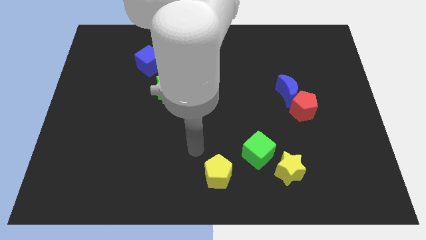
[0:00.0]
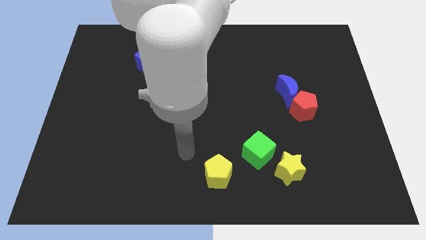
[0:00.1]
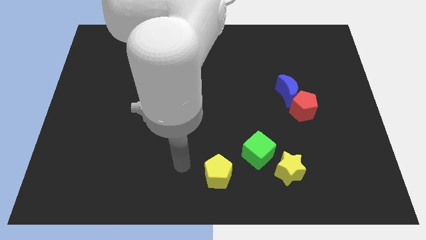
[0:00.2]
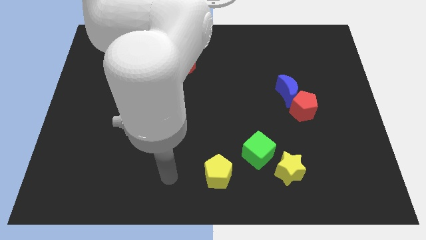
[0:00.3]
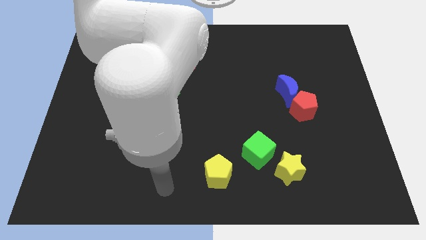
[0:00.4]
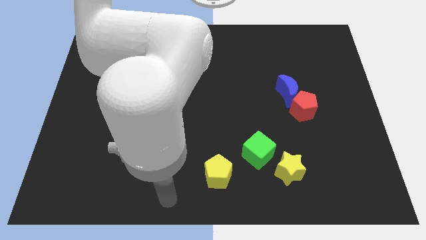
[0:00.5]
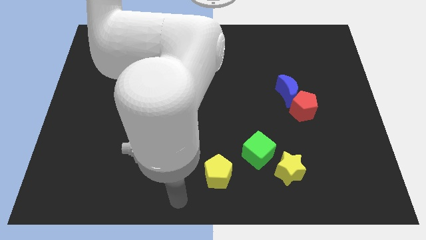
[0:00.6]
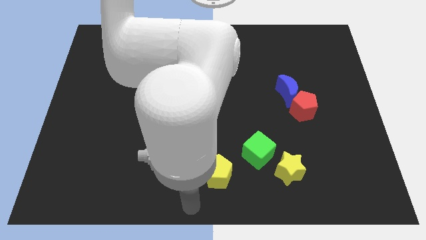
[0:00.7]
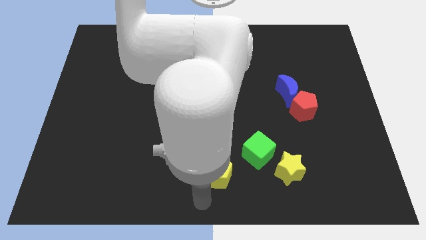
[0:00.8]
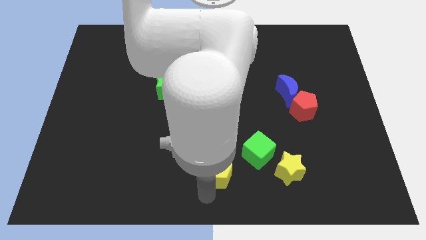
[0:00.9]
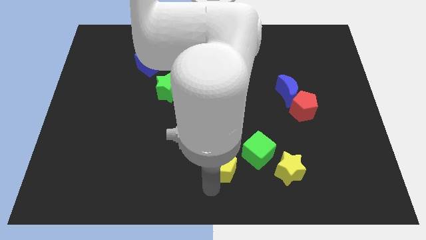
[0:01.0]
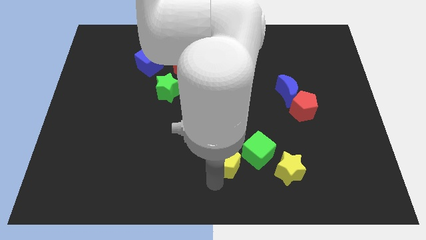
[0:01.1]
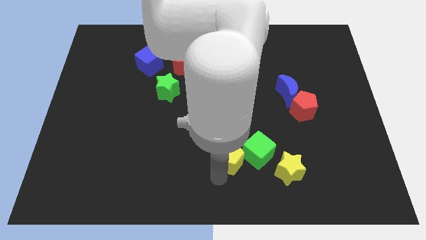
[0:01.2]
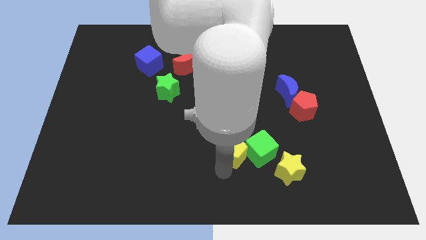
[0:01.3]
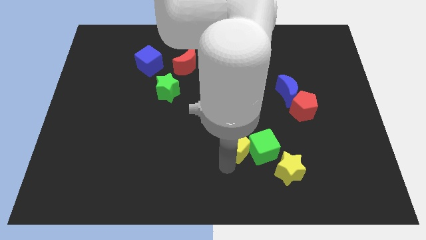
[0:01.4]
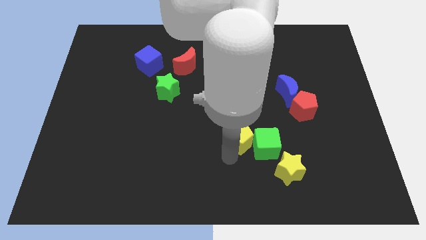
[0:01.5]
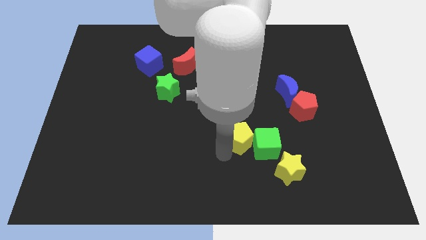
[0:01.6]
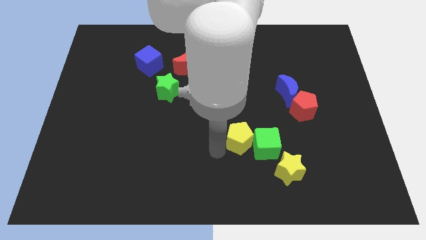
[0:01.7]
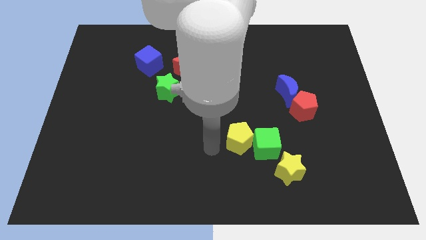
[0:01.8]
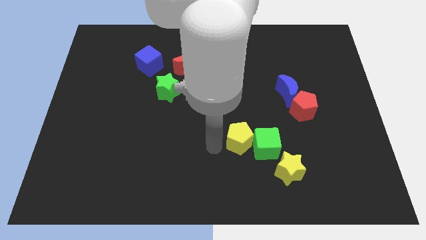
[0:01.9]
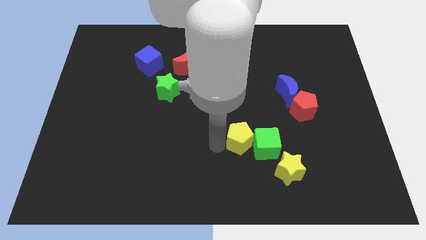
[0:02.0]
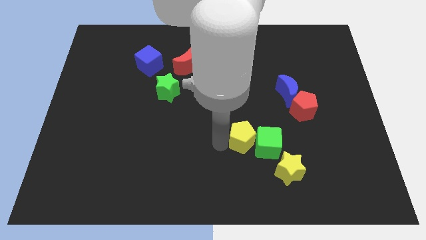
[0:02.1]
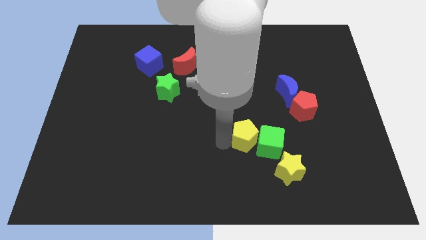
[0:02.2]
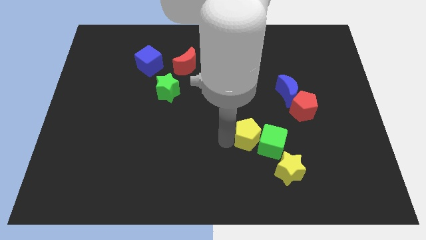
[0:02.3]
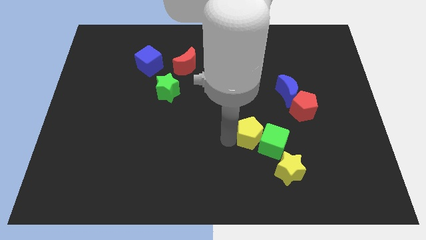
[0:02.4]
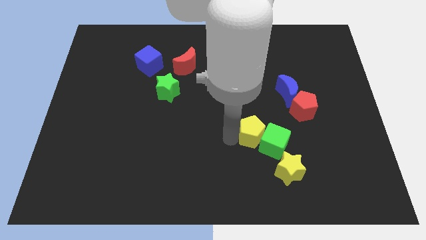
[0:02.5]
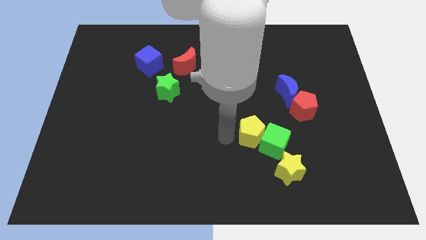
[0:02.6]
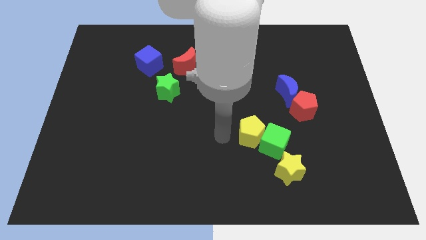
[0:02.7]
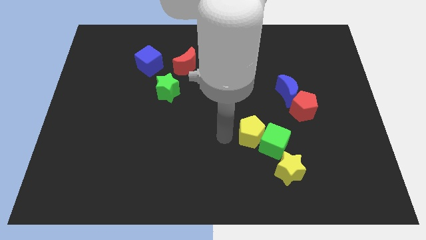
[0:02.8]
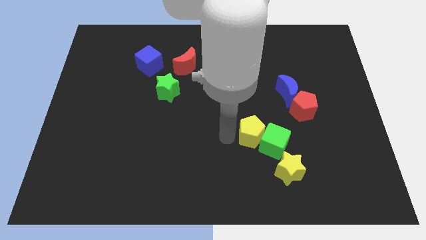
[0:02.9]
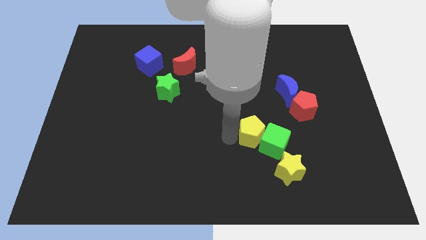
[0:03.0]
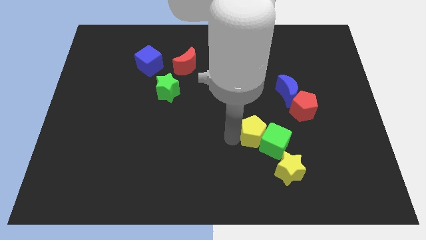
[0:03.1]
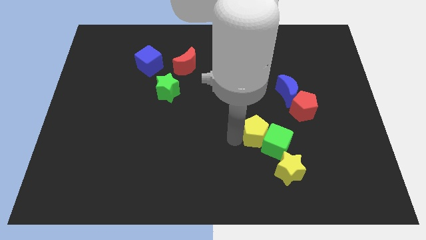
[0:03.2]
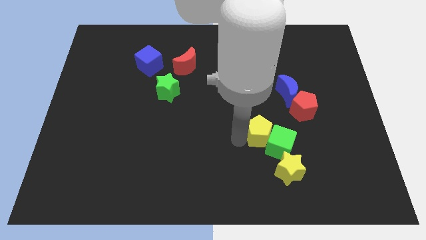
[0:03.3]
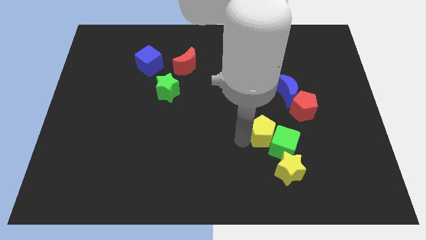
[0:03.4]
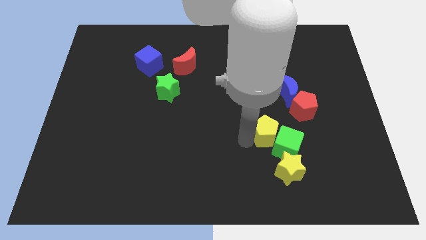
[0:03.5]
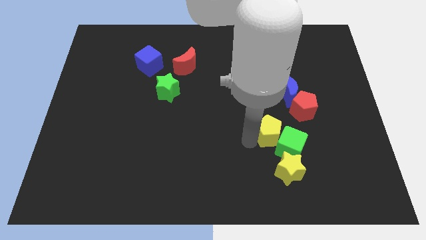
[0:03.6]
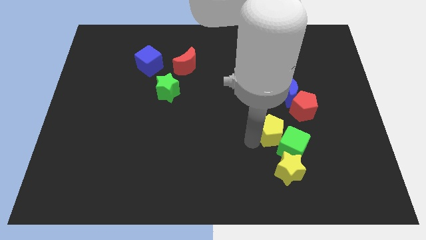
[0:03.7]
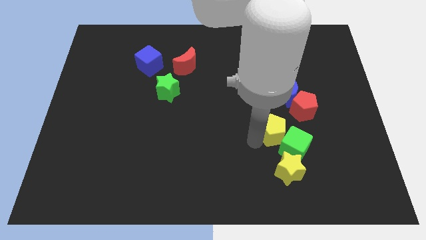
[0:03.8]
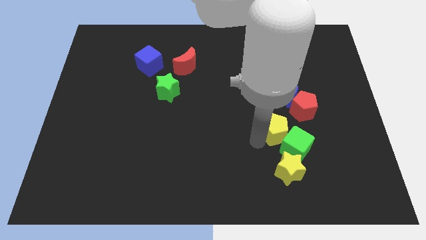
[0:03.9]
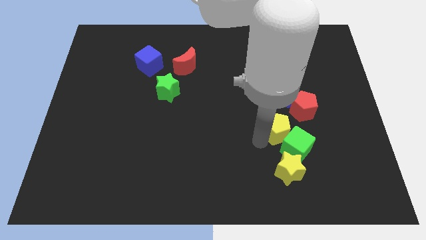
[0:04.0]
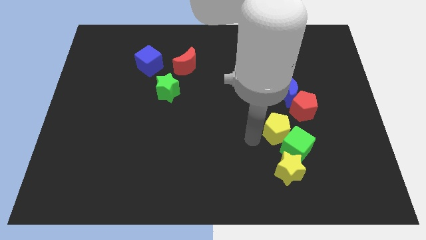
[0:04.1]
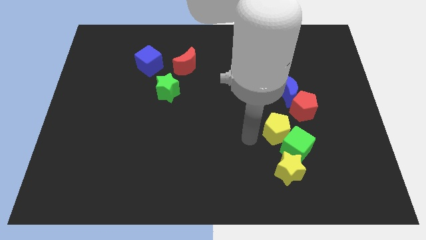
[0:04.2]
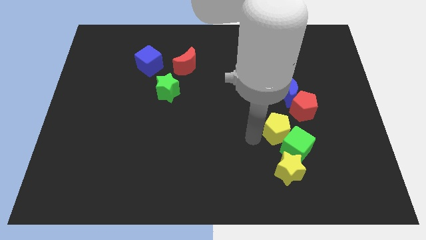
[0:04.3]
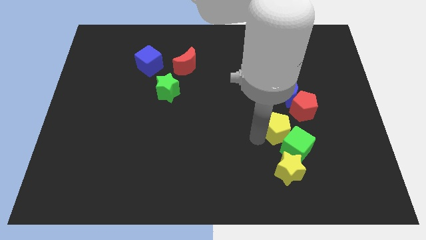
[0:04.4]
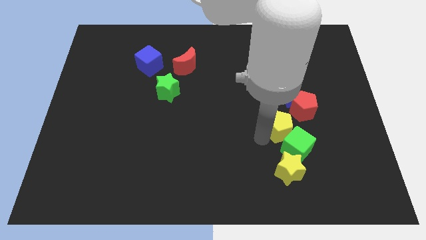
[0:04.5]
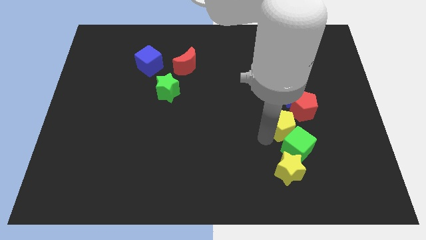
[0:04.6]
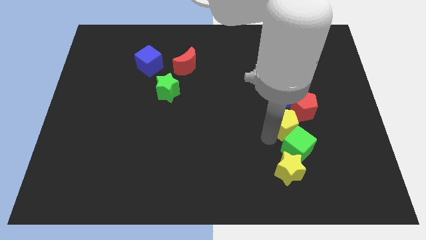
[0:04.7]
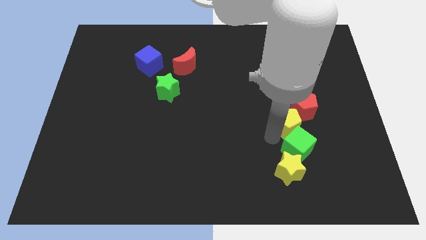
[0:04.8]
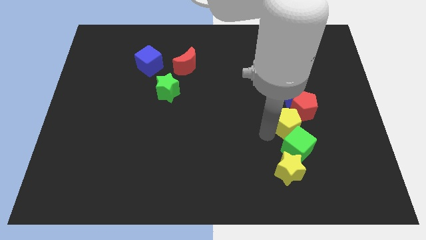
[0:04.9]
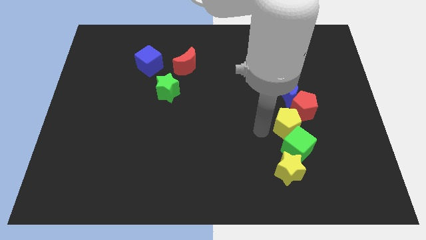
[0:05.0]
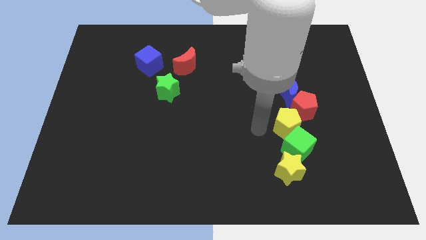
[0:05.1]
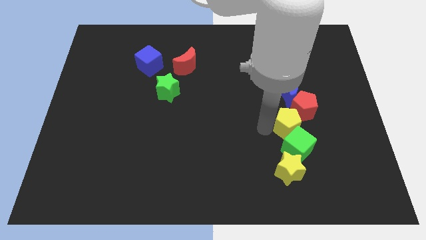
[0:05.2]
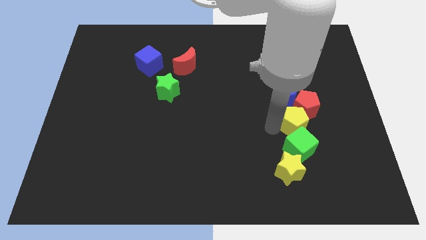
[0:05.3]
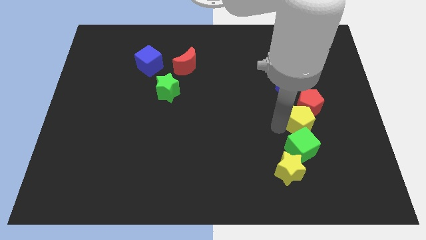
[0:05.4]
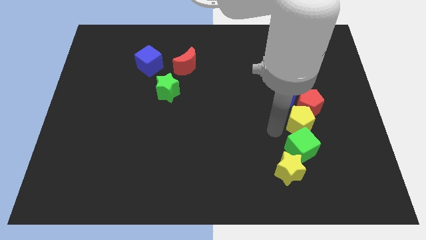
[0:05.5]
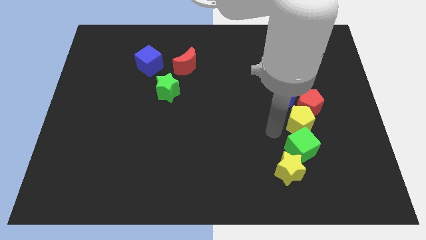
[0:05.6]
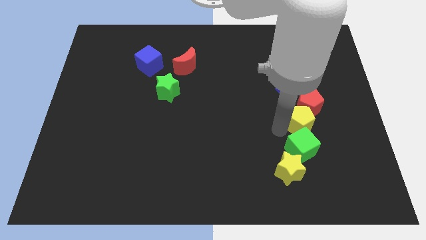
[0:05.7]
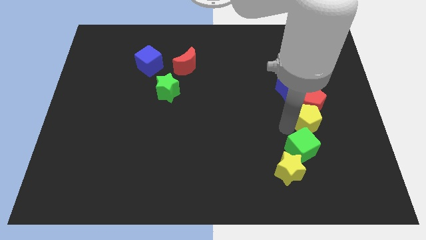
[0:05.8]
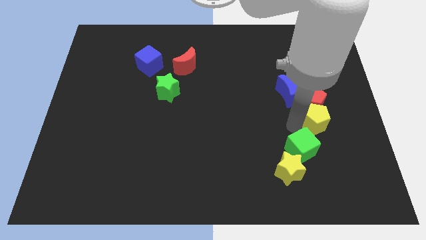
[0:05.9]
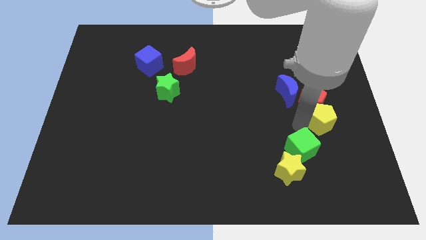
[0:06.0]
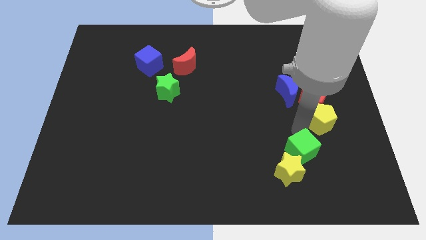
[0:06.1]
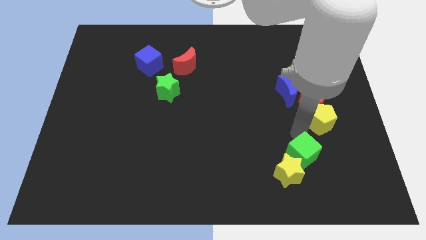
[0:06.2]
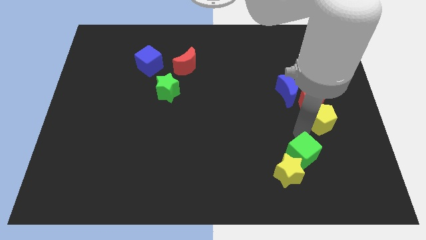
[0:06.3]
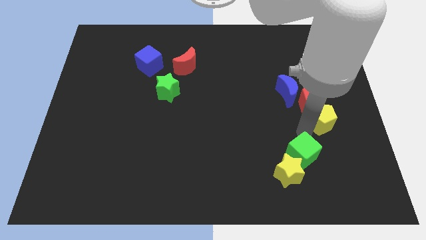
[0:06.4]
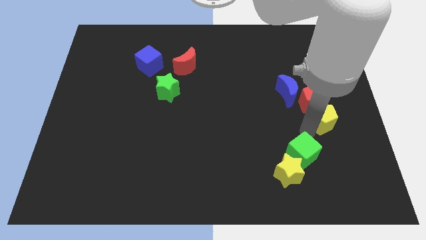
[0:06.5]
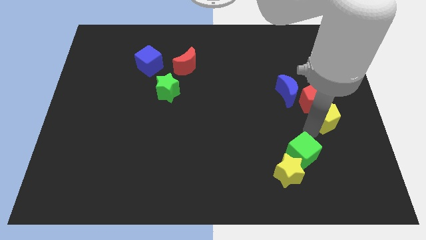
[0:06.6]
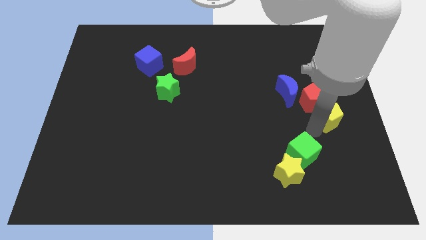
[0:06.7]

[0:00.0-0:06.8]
put the yellow pentagon to the right side

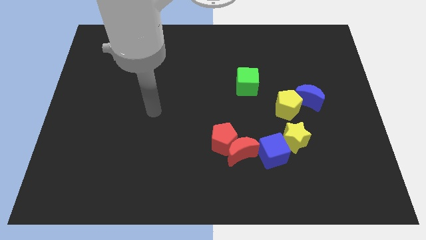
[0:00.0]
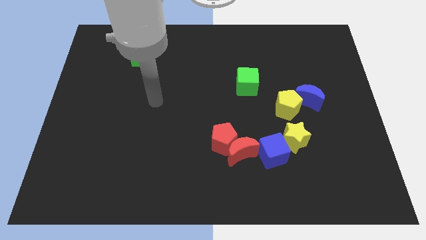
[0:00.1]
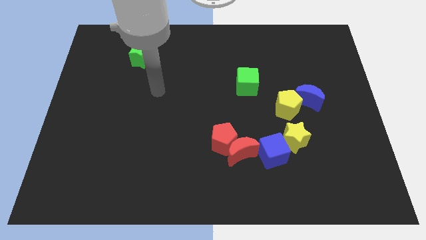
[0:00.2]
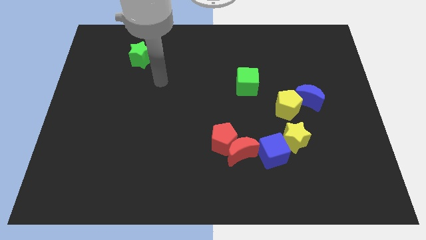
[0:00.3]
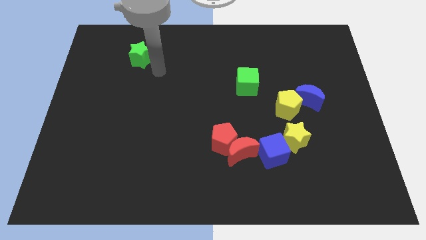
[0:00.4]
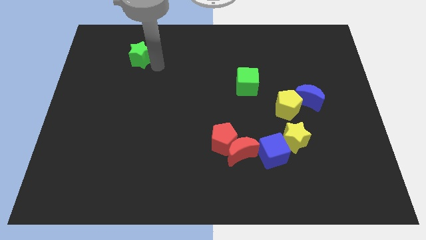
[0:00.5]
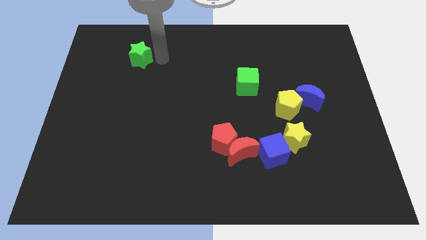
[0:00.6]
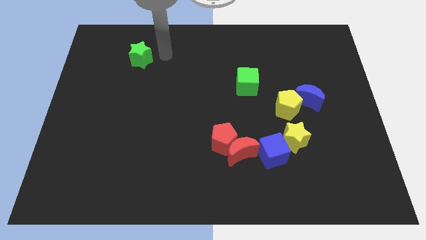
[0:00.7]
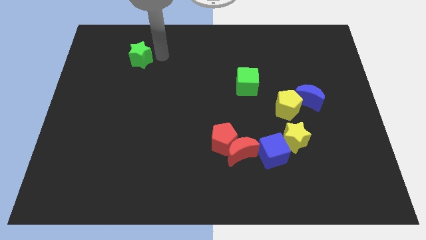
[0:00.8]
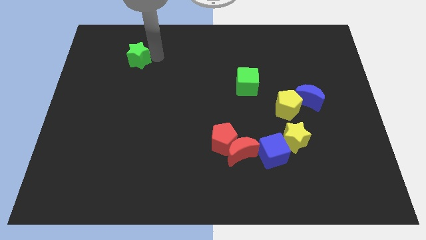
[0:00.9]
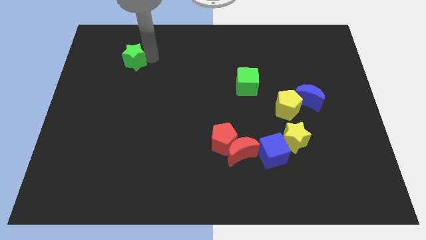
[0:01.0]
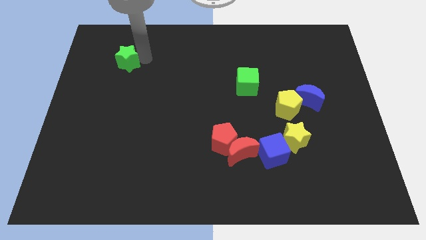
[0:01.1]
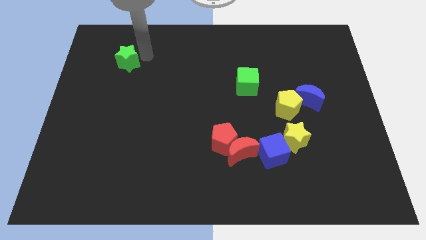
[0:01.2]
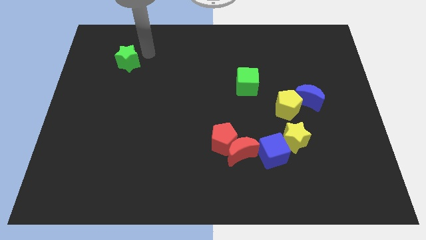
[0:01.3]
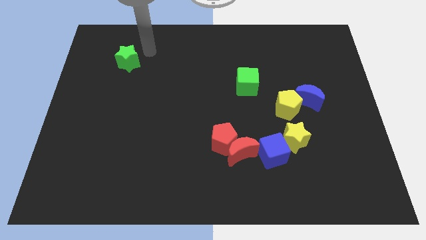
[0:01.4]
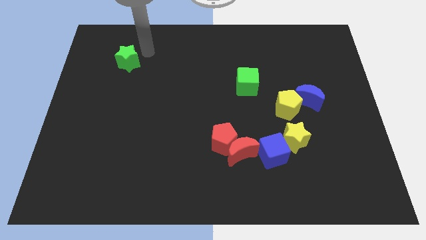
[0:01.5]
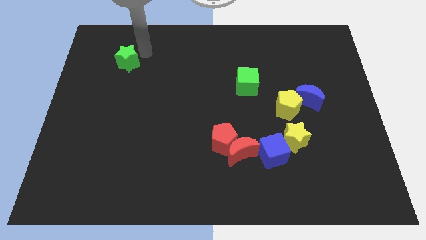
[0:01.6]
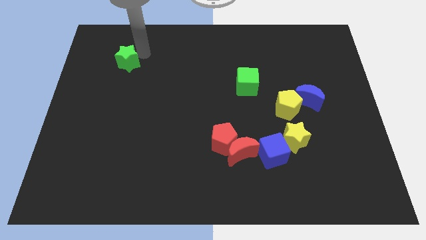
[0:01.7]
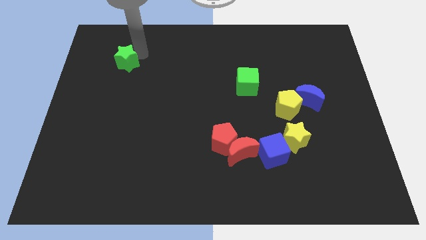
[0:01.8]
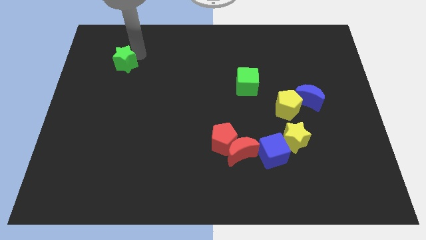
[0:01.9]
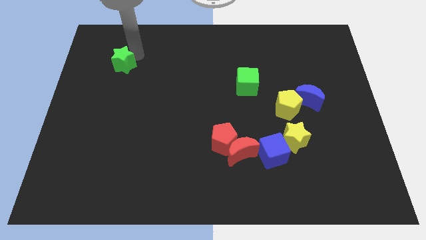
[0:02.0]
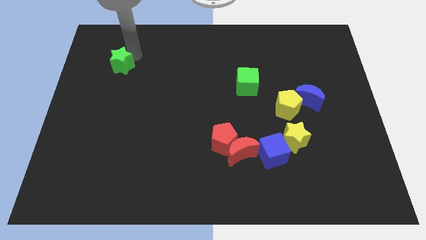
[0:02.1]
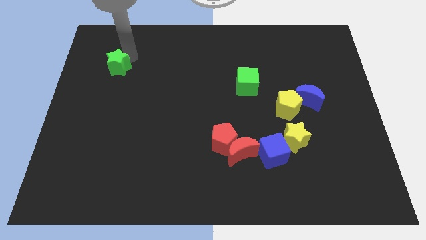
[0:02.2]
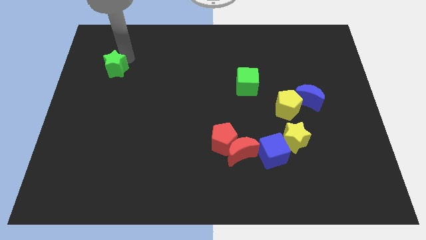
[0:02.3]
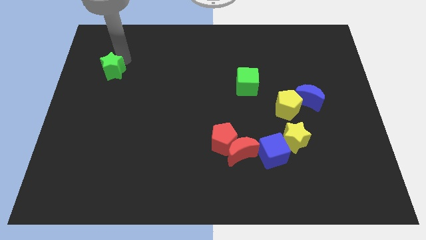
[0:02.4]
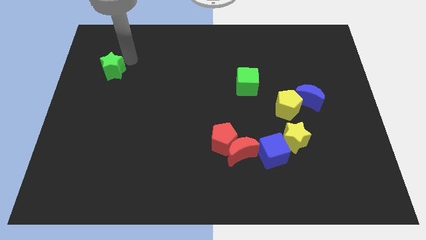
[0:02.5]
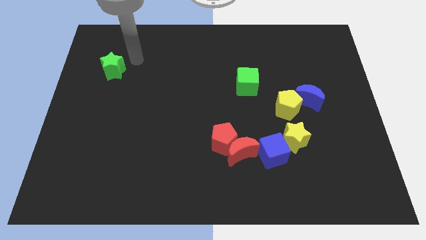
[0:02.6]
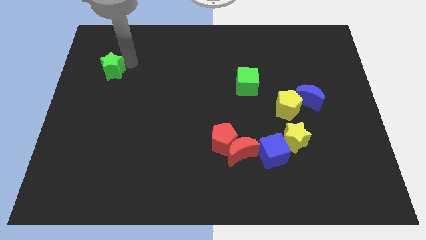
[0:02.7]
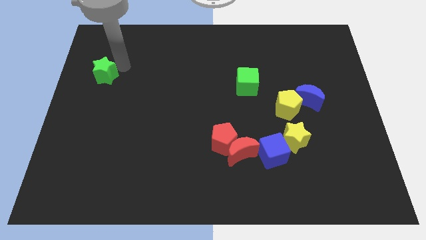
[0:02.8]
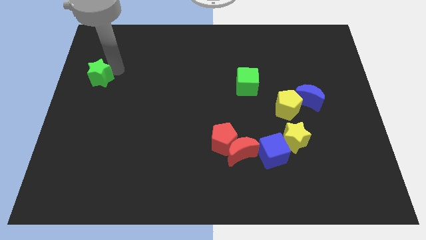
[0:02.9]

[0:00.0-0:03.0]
put the green star to the left side
